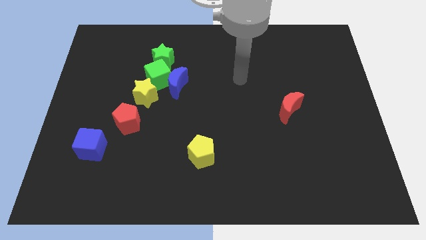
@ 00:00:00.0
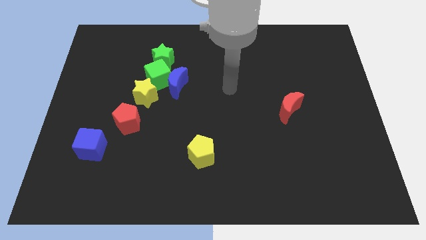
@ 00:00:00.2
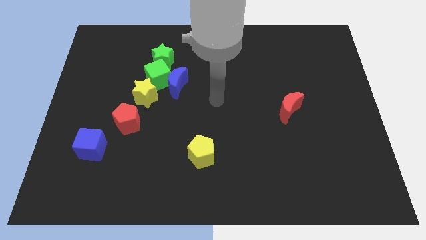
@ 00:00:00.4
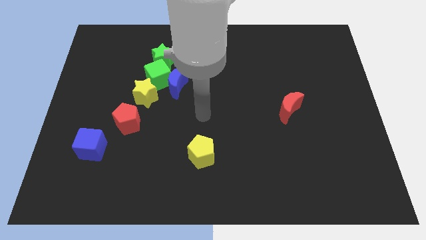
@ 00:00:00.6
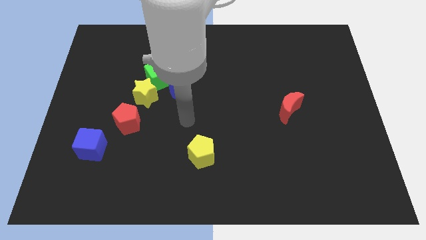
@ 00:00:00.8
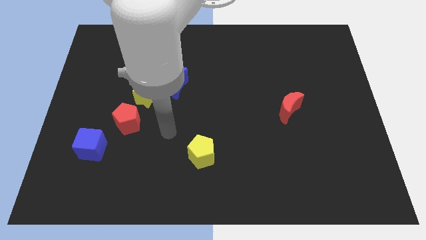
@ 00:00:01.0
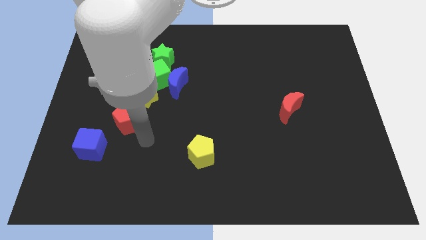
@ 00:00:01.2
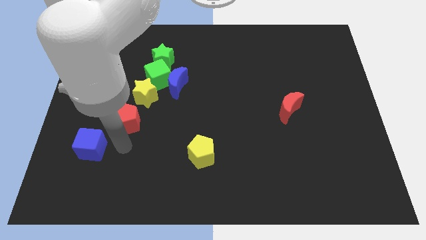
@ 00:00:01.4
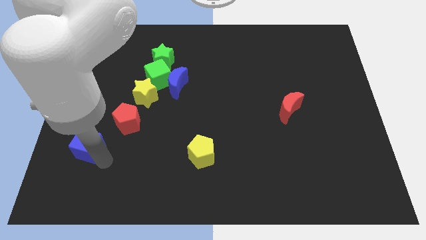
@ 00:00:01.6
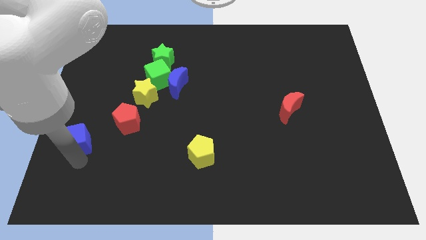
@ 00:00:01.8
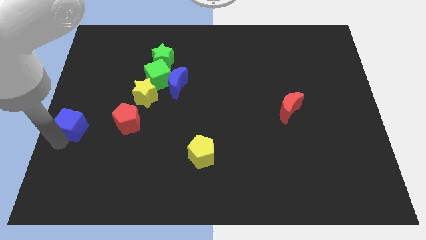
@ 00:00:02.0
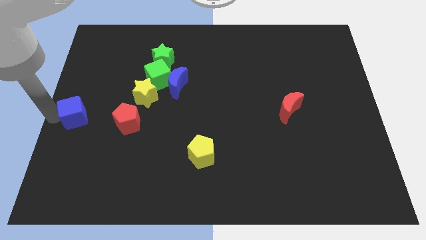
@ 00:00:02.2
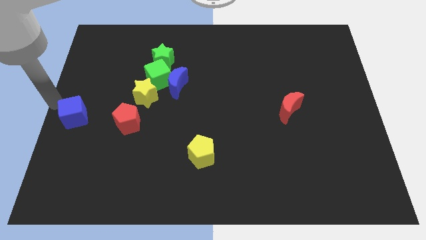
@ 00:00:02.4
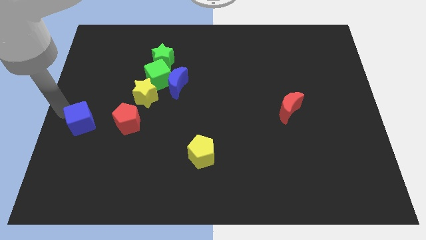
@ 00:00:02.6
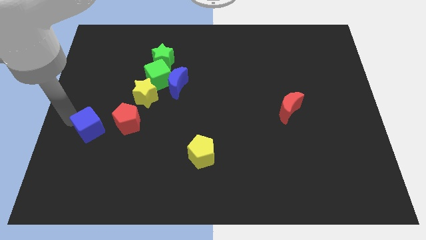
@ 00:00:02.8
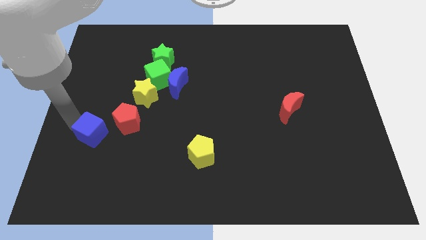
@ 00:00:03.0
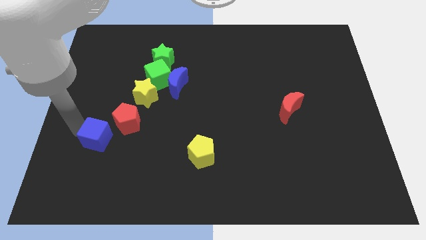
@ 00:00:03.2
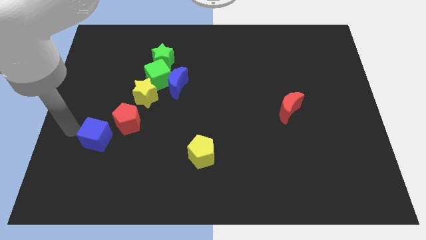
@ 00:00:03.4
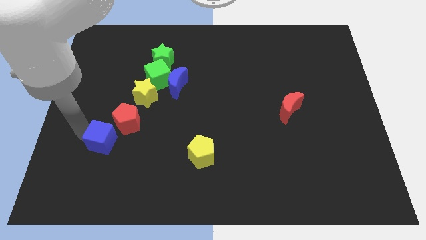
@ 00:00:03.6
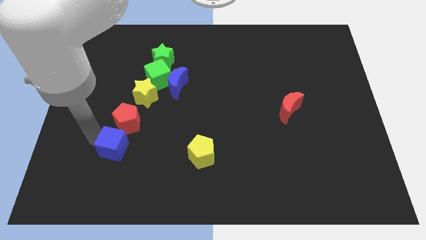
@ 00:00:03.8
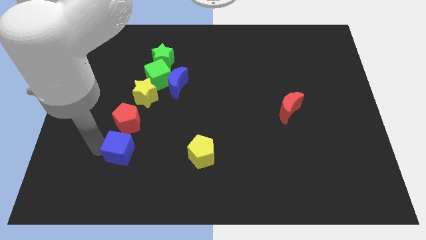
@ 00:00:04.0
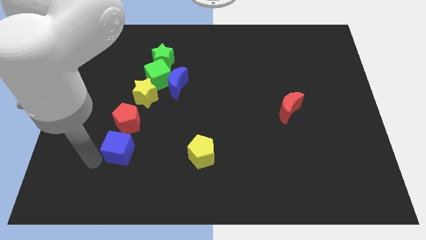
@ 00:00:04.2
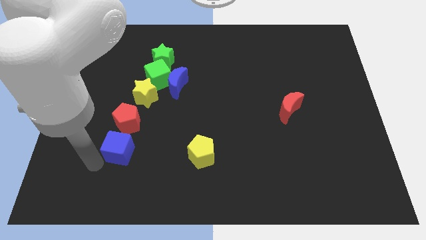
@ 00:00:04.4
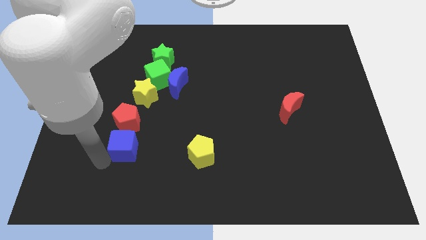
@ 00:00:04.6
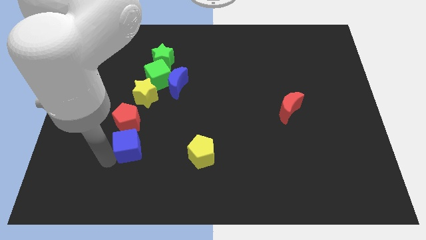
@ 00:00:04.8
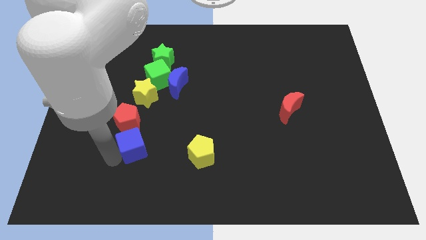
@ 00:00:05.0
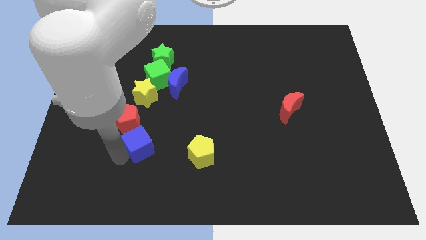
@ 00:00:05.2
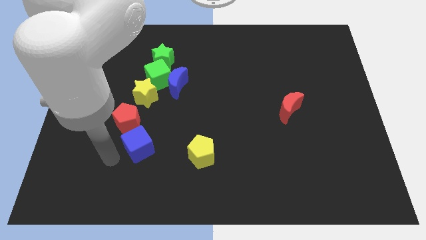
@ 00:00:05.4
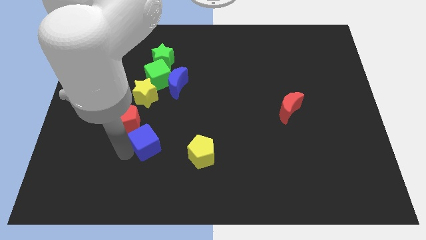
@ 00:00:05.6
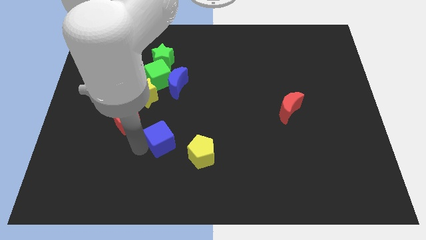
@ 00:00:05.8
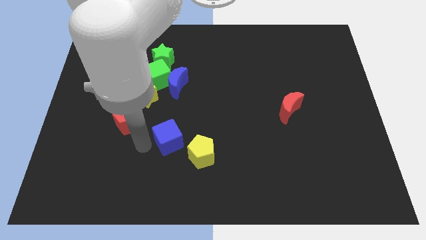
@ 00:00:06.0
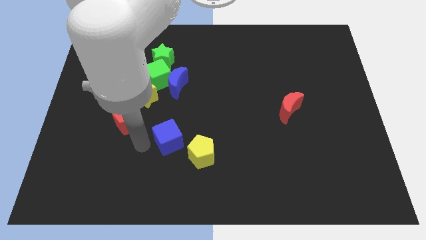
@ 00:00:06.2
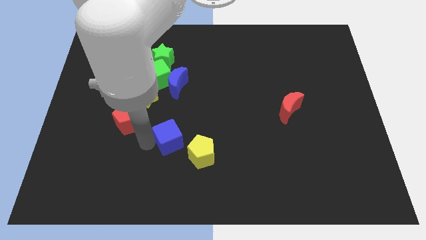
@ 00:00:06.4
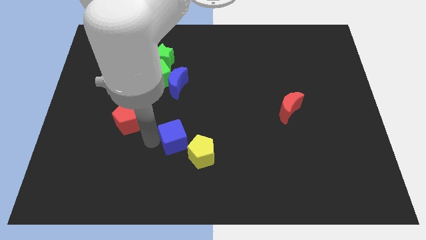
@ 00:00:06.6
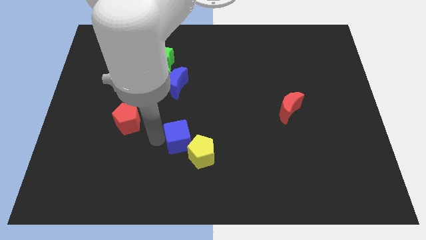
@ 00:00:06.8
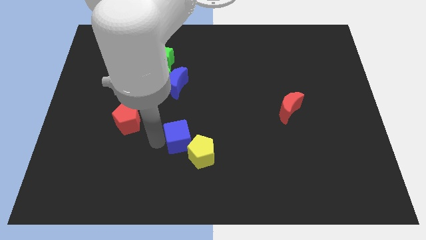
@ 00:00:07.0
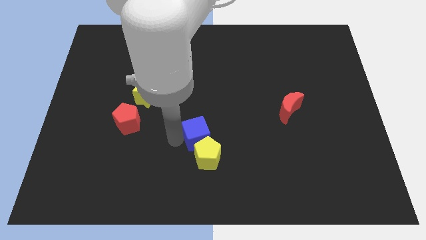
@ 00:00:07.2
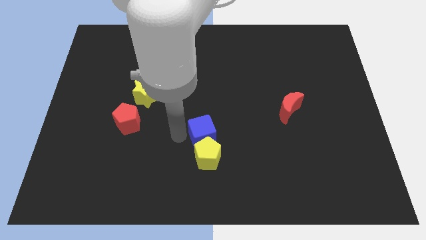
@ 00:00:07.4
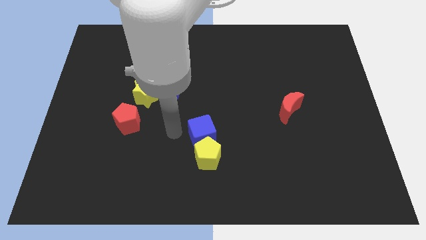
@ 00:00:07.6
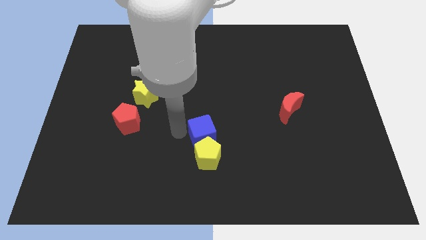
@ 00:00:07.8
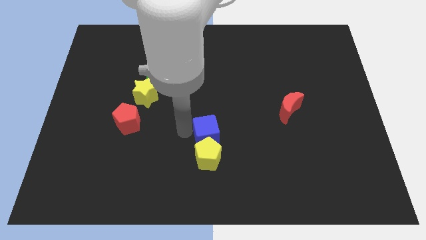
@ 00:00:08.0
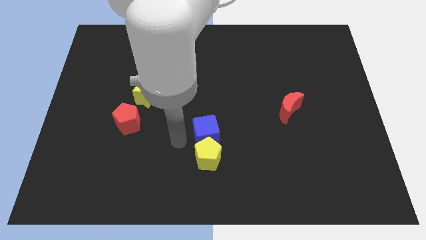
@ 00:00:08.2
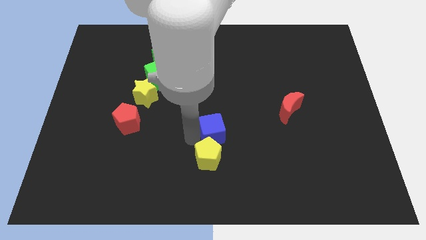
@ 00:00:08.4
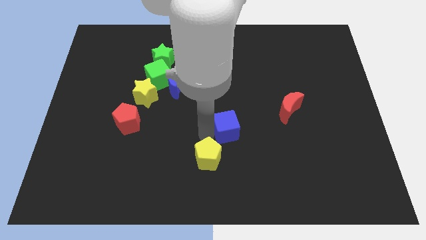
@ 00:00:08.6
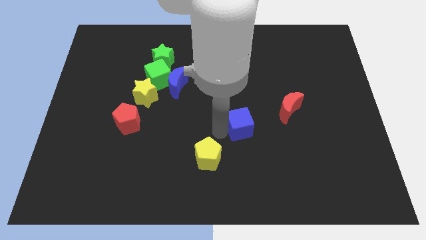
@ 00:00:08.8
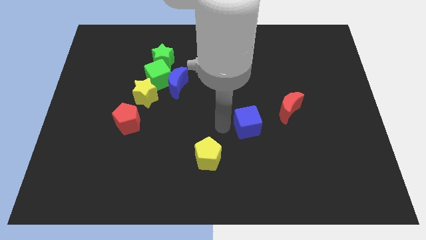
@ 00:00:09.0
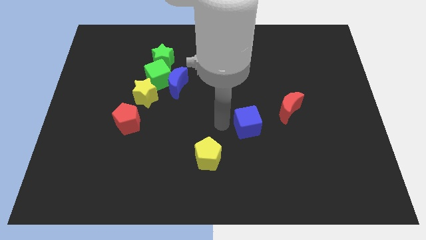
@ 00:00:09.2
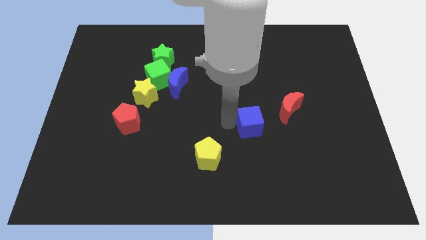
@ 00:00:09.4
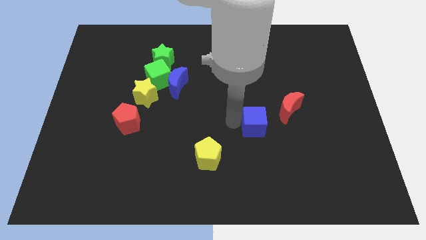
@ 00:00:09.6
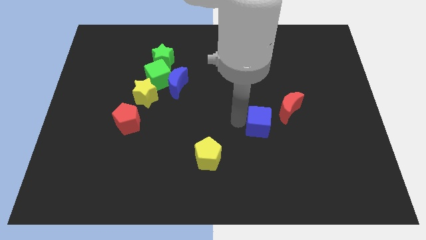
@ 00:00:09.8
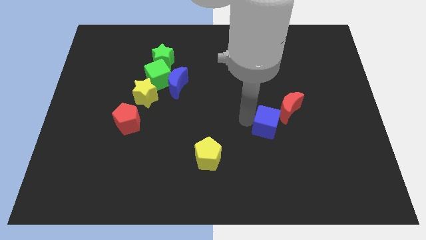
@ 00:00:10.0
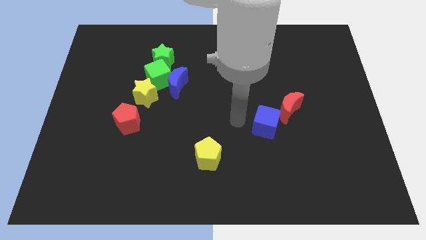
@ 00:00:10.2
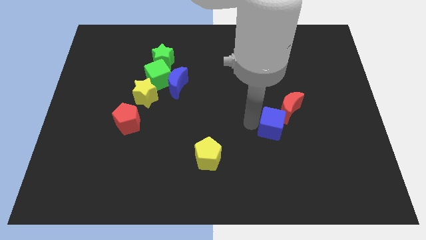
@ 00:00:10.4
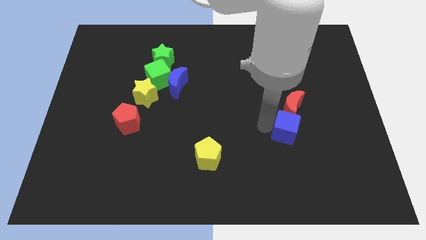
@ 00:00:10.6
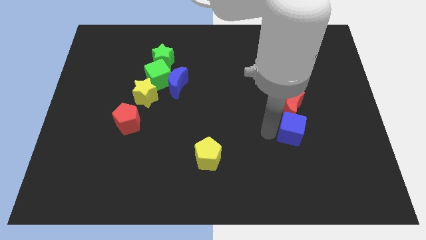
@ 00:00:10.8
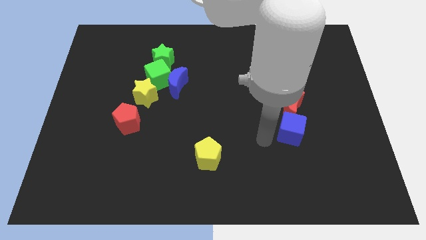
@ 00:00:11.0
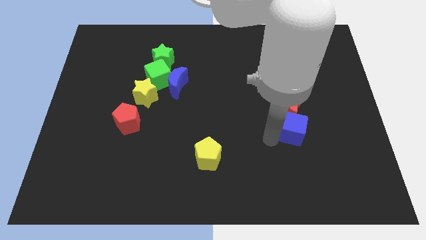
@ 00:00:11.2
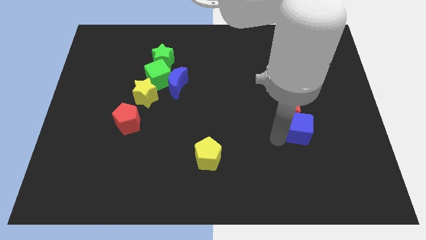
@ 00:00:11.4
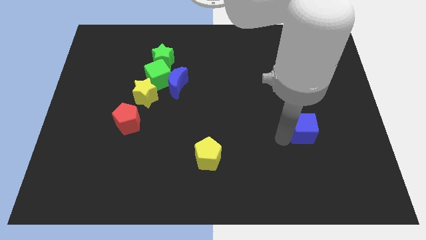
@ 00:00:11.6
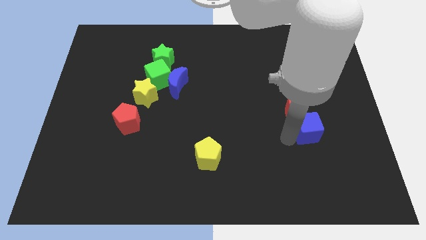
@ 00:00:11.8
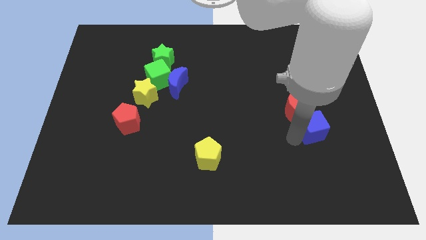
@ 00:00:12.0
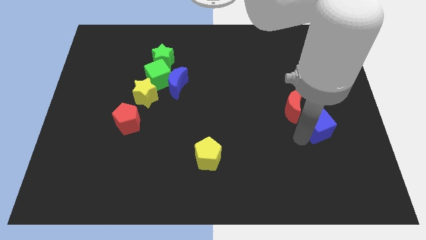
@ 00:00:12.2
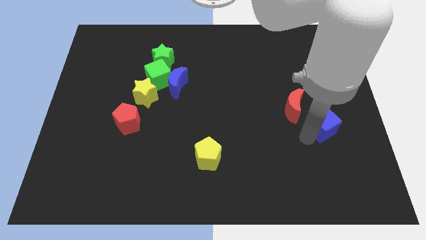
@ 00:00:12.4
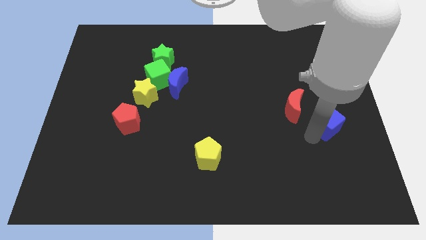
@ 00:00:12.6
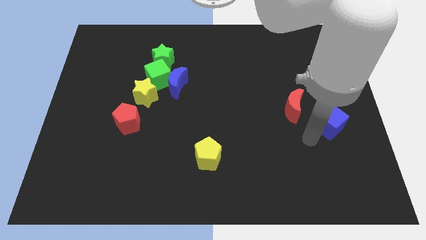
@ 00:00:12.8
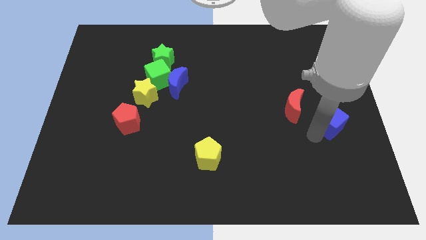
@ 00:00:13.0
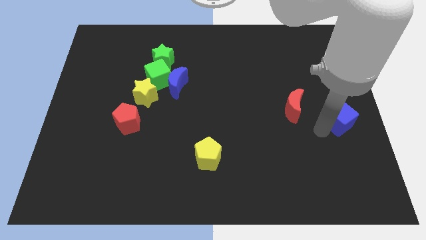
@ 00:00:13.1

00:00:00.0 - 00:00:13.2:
push the blue cube to the right side of the board
